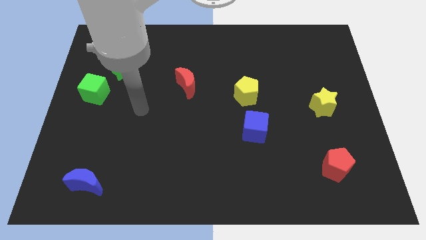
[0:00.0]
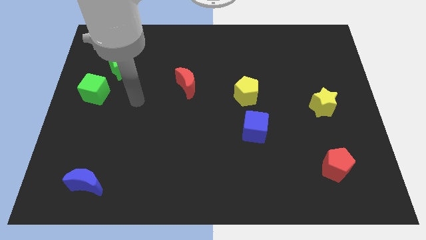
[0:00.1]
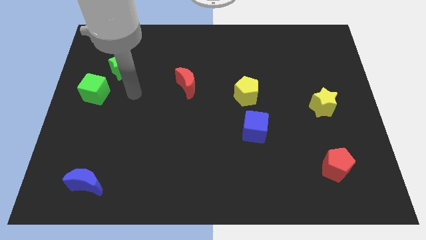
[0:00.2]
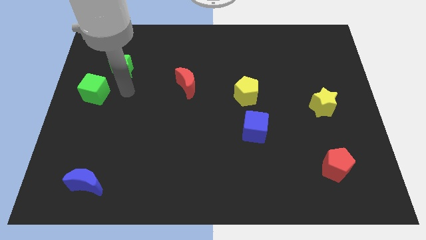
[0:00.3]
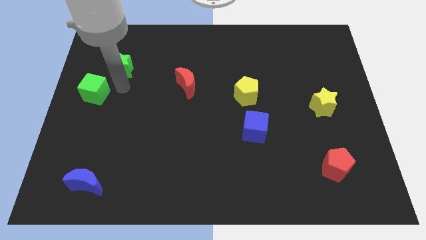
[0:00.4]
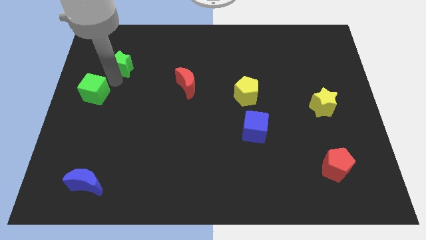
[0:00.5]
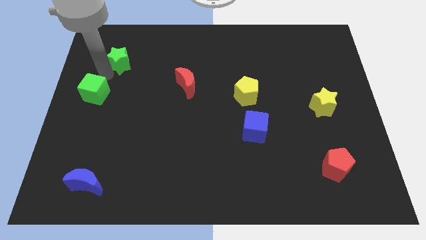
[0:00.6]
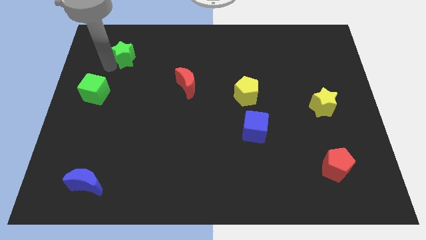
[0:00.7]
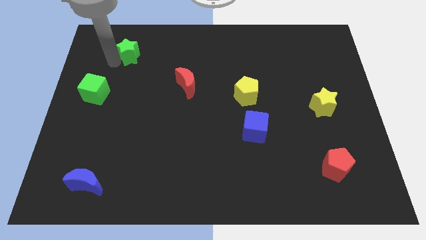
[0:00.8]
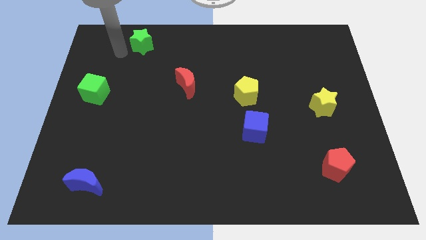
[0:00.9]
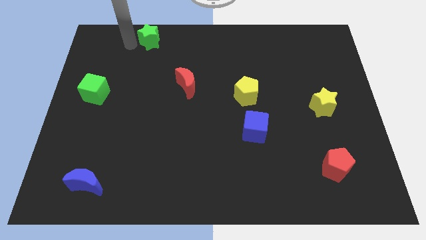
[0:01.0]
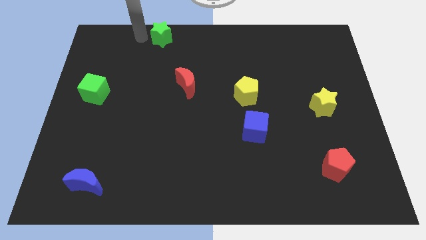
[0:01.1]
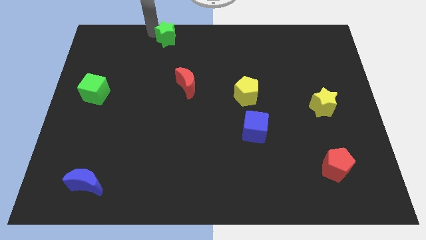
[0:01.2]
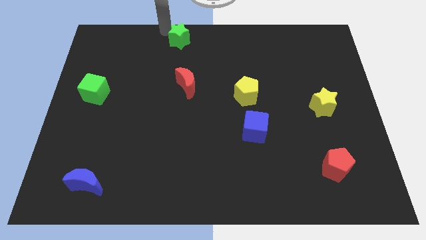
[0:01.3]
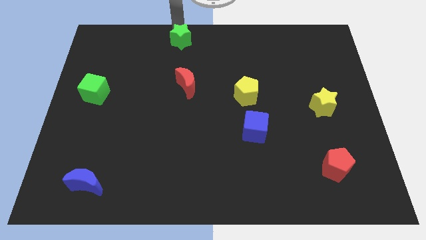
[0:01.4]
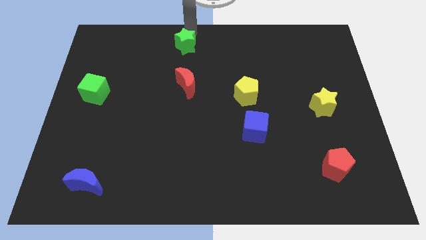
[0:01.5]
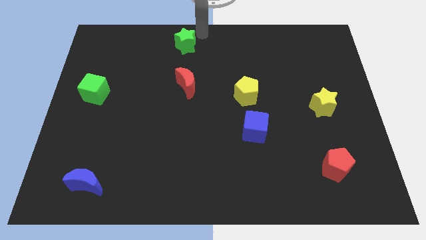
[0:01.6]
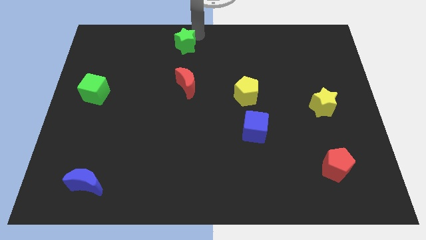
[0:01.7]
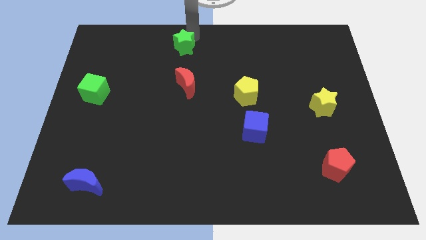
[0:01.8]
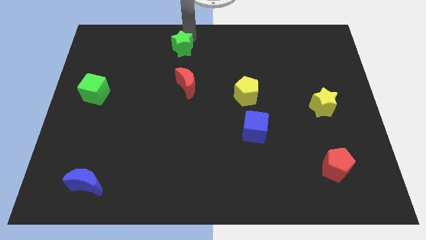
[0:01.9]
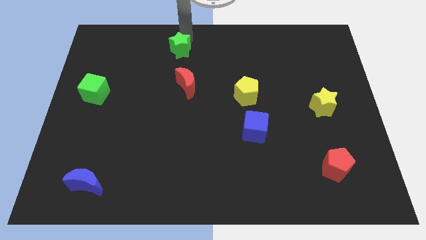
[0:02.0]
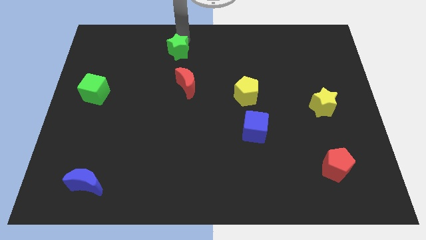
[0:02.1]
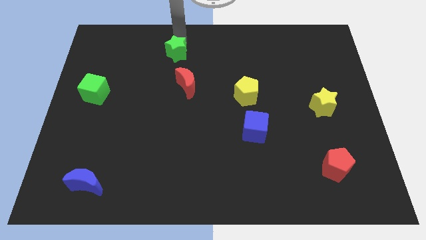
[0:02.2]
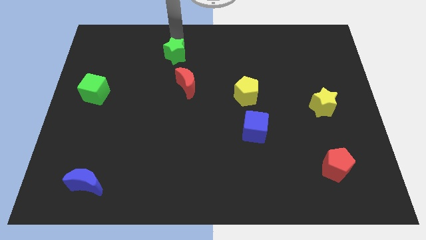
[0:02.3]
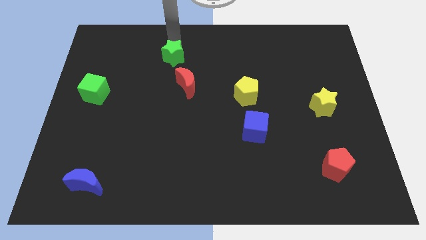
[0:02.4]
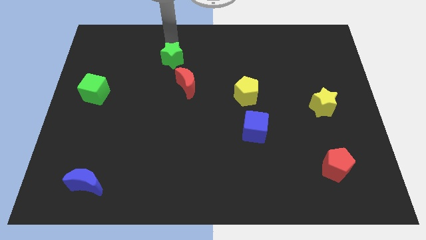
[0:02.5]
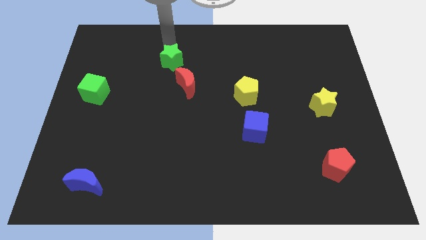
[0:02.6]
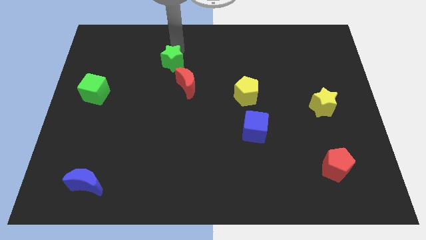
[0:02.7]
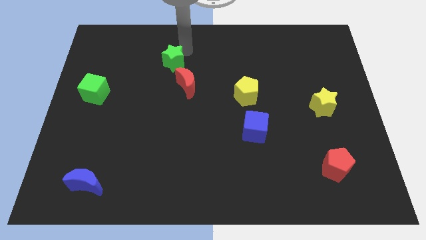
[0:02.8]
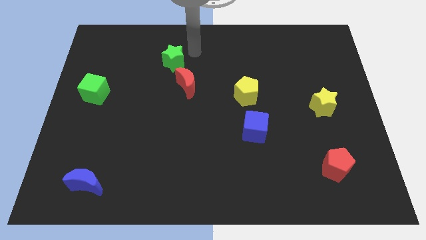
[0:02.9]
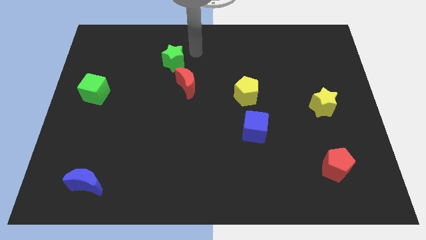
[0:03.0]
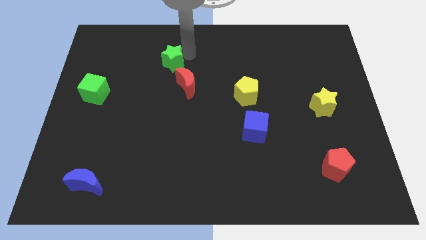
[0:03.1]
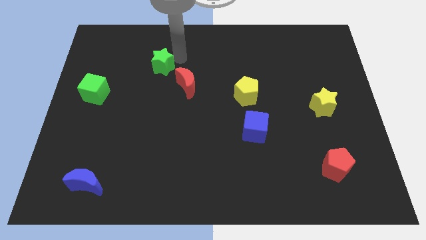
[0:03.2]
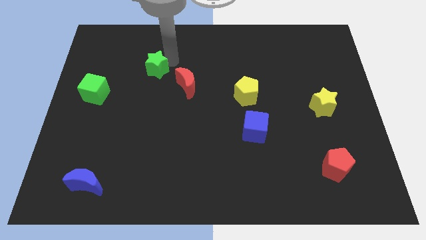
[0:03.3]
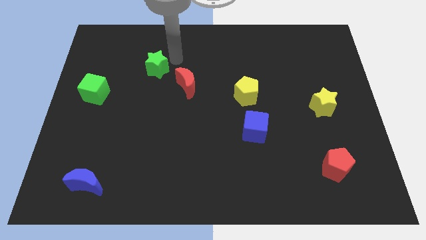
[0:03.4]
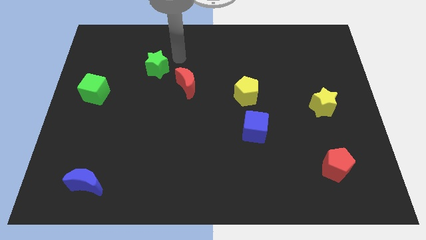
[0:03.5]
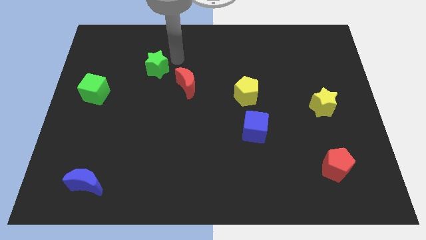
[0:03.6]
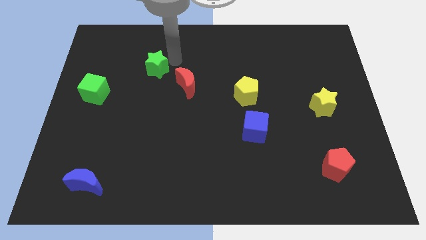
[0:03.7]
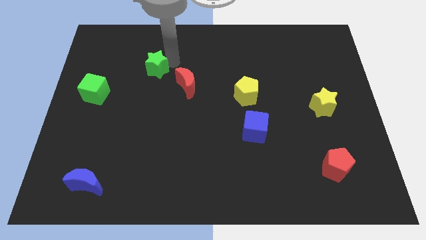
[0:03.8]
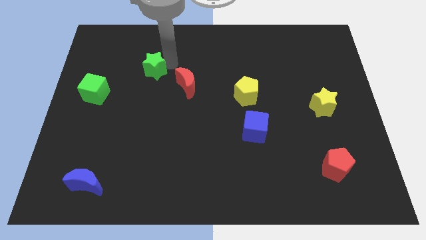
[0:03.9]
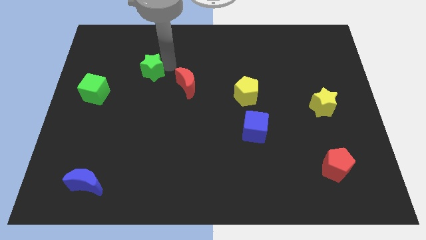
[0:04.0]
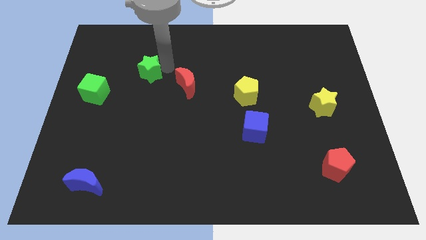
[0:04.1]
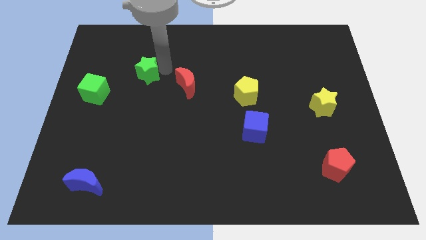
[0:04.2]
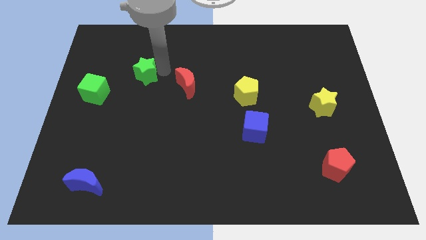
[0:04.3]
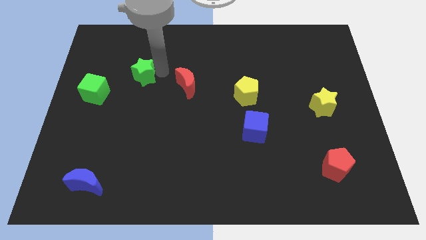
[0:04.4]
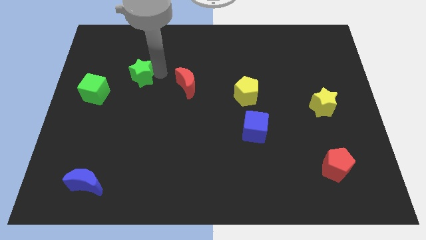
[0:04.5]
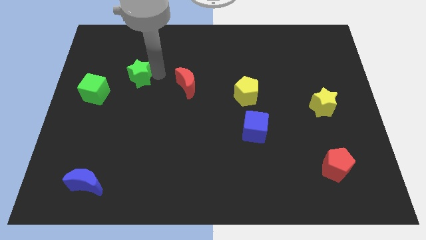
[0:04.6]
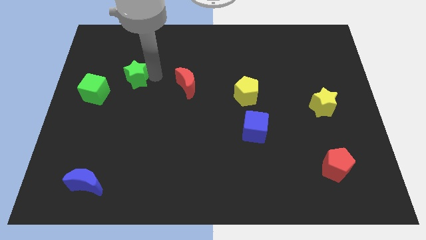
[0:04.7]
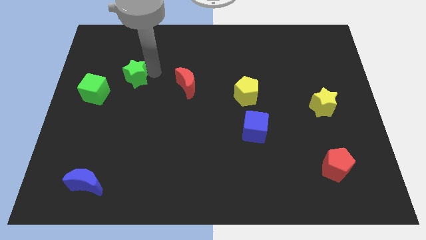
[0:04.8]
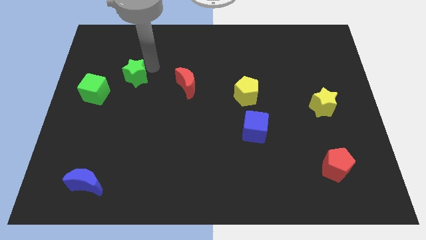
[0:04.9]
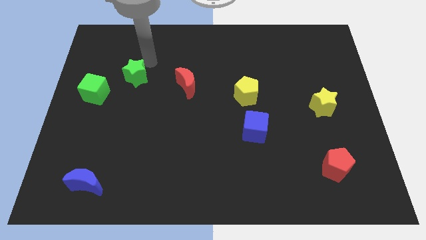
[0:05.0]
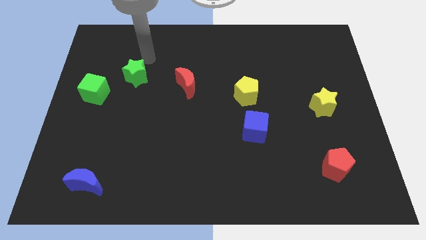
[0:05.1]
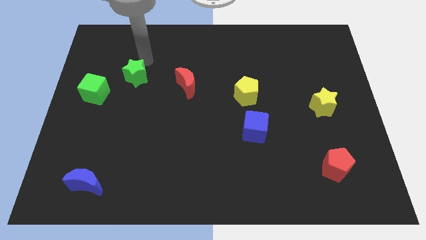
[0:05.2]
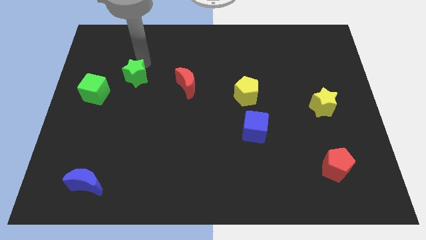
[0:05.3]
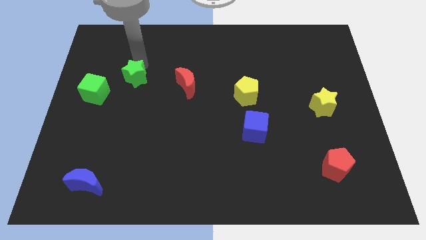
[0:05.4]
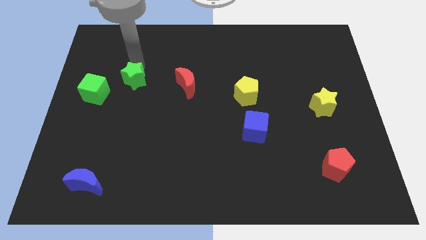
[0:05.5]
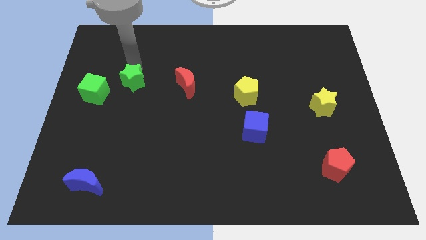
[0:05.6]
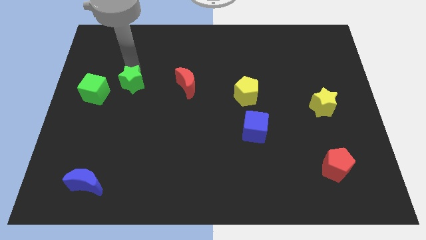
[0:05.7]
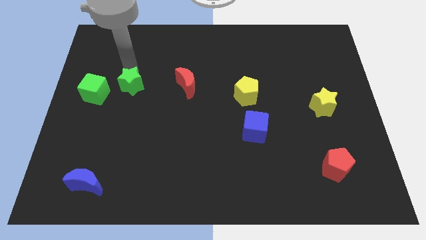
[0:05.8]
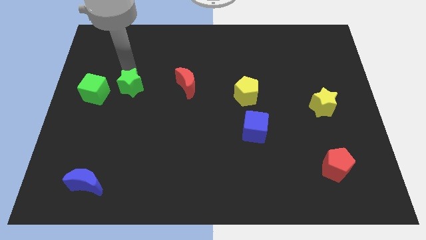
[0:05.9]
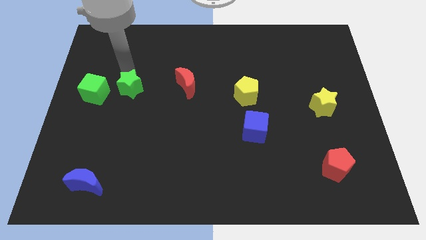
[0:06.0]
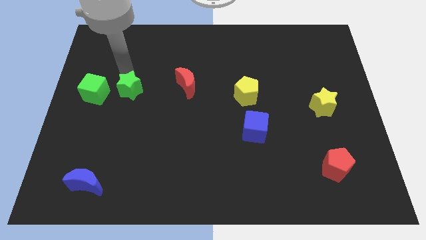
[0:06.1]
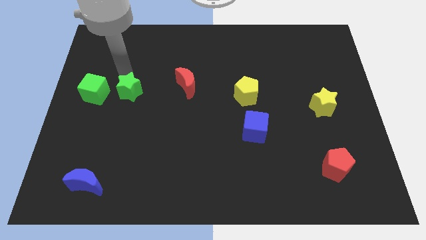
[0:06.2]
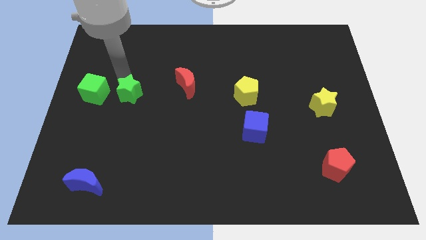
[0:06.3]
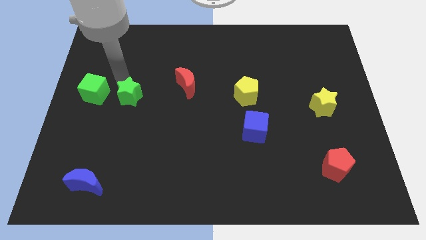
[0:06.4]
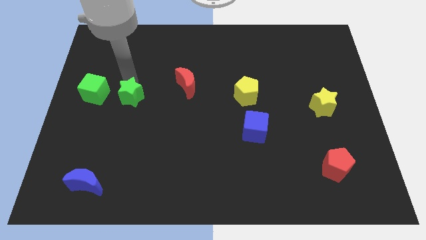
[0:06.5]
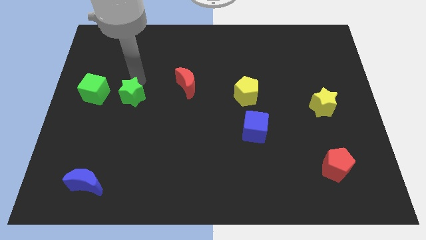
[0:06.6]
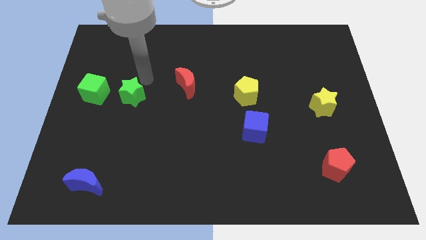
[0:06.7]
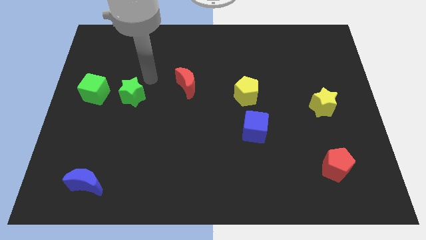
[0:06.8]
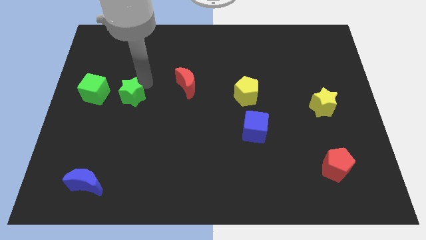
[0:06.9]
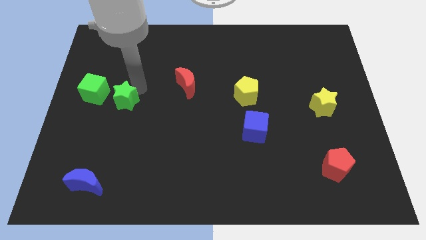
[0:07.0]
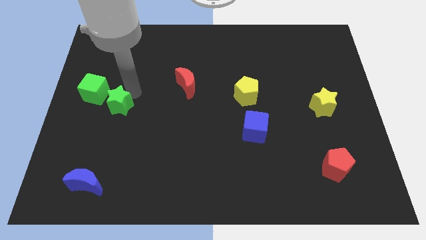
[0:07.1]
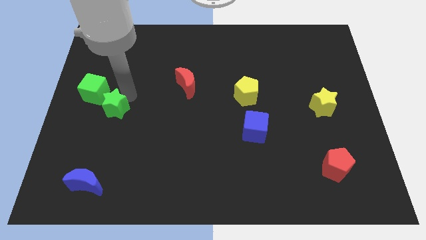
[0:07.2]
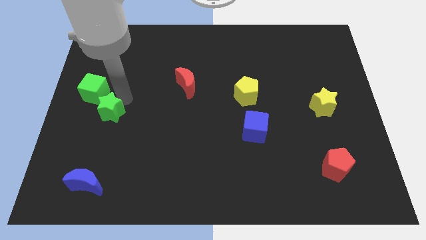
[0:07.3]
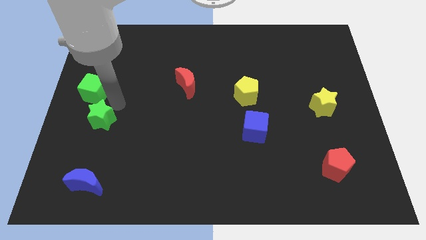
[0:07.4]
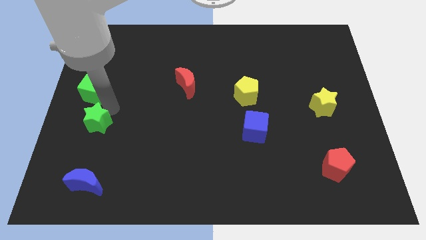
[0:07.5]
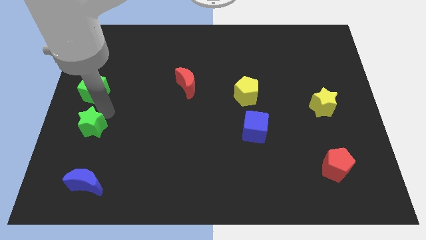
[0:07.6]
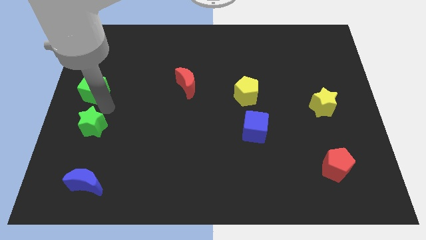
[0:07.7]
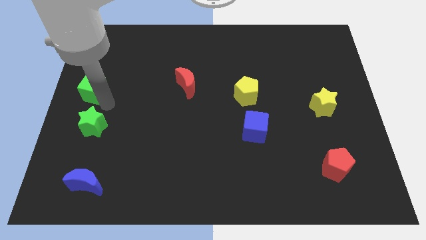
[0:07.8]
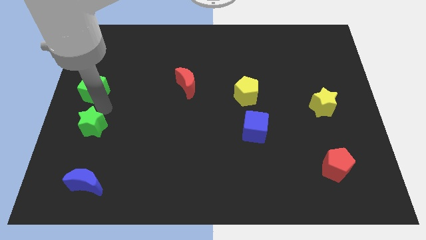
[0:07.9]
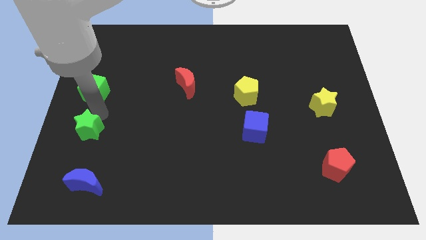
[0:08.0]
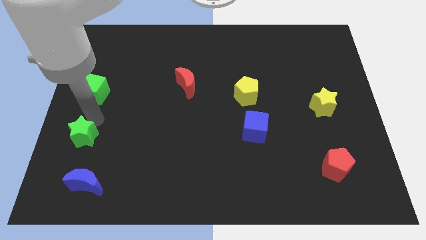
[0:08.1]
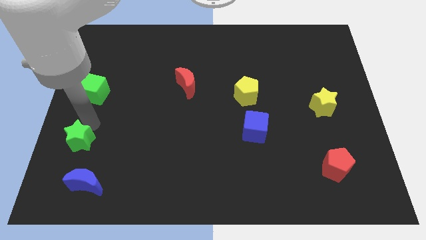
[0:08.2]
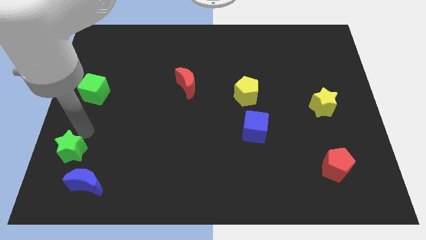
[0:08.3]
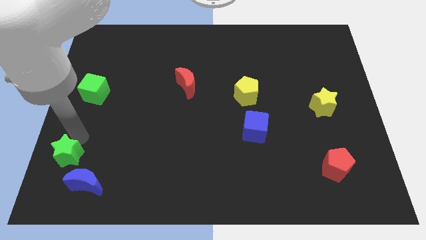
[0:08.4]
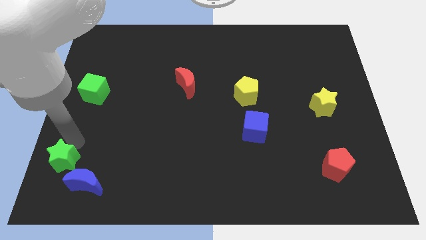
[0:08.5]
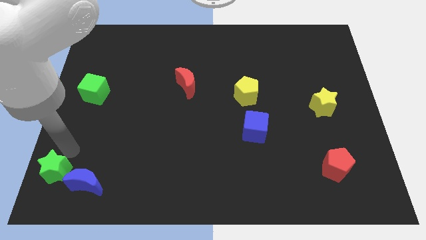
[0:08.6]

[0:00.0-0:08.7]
push the green star to the bottom left corner
